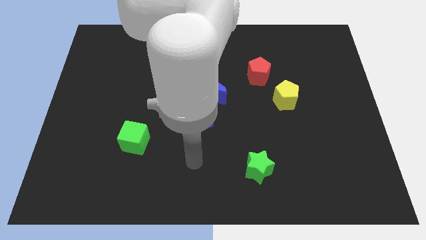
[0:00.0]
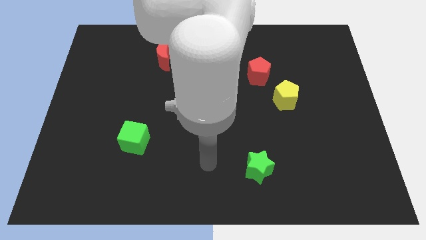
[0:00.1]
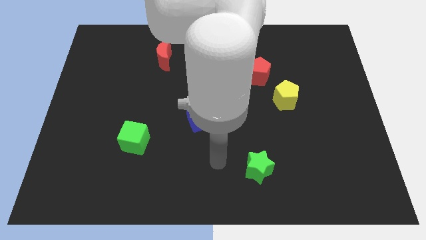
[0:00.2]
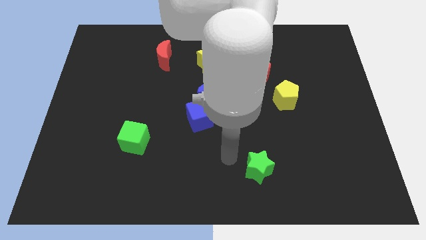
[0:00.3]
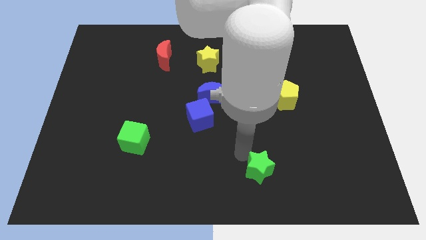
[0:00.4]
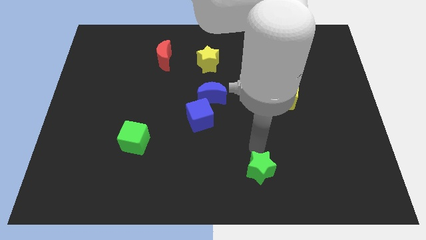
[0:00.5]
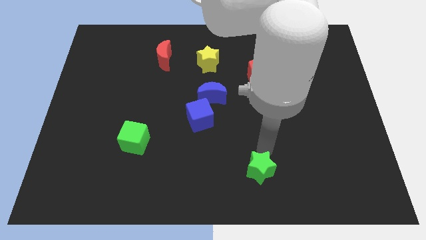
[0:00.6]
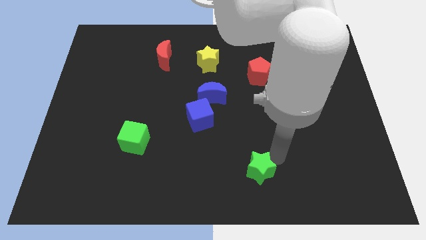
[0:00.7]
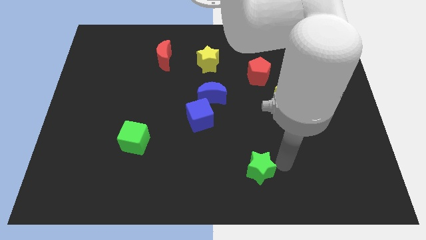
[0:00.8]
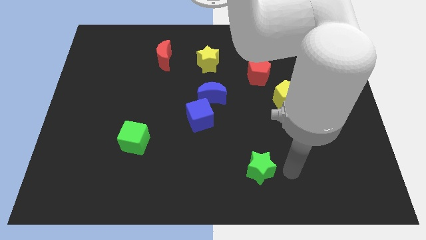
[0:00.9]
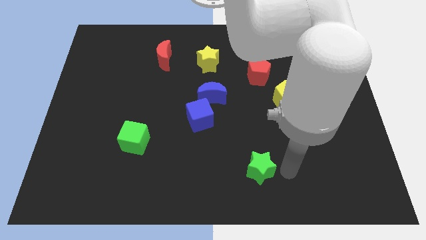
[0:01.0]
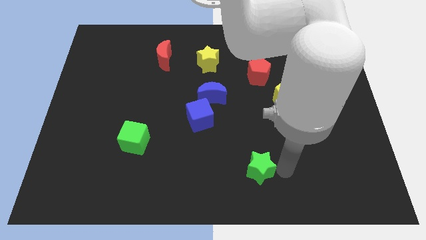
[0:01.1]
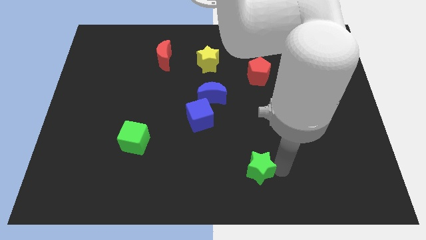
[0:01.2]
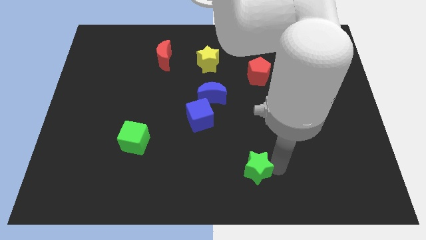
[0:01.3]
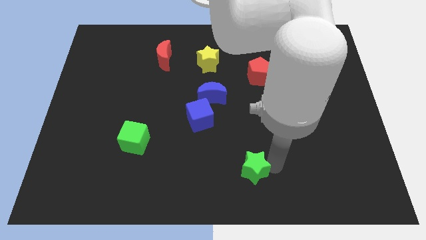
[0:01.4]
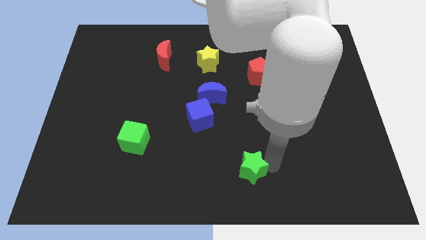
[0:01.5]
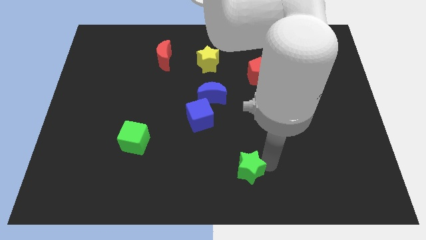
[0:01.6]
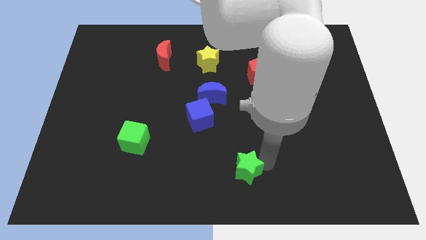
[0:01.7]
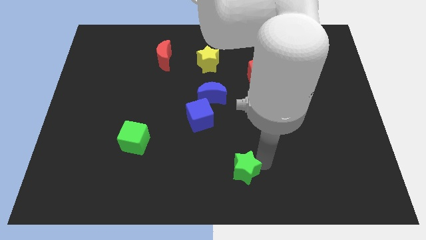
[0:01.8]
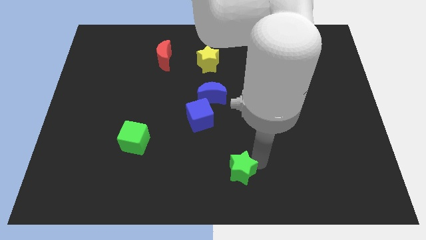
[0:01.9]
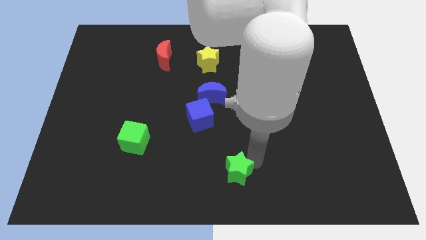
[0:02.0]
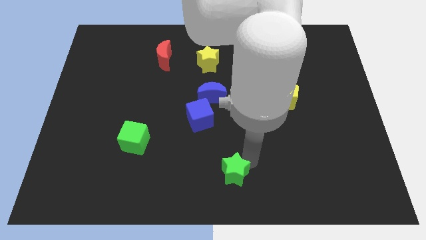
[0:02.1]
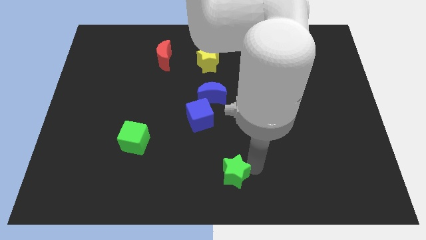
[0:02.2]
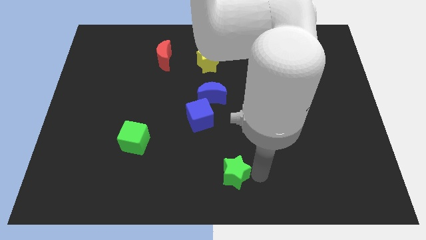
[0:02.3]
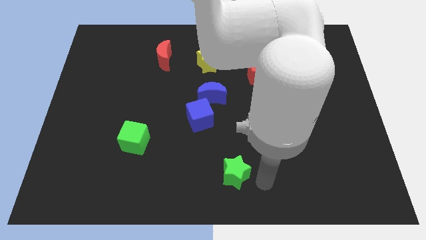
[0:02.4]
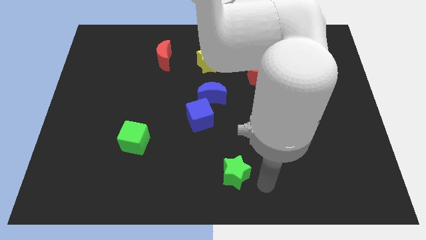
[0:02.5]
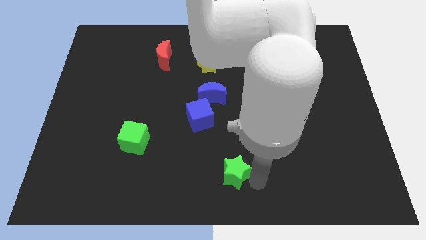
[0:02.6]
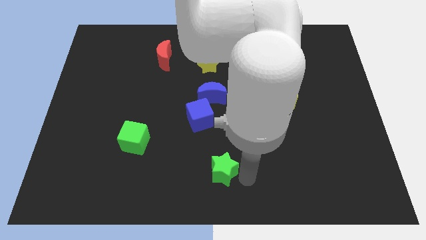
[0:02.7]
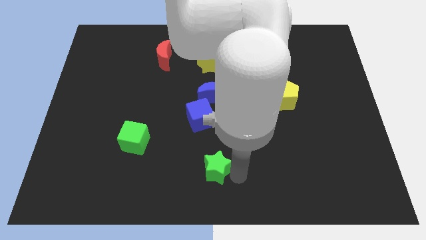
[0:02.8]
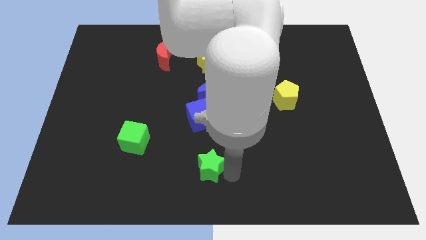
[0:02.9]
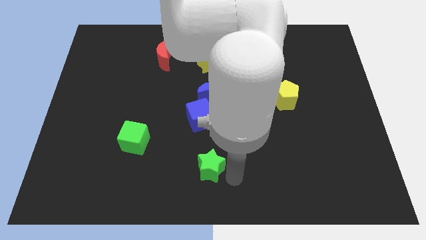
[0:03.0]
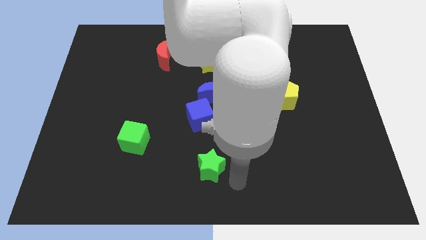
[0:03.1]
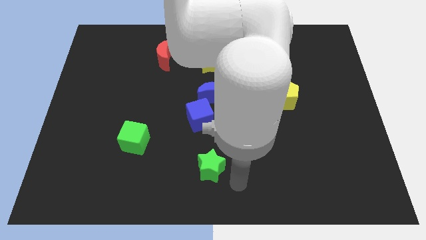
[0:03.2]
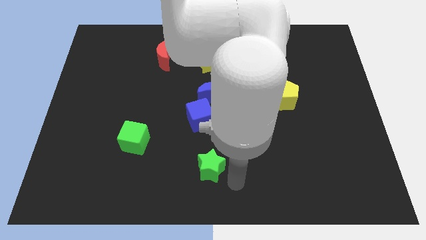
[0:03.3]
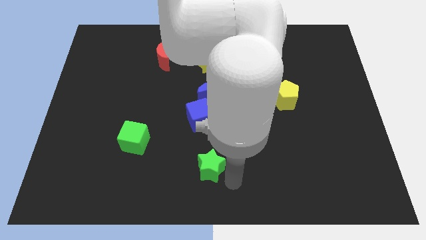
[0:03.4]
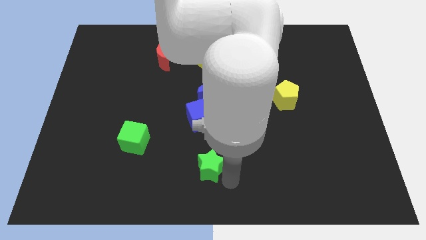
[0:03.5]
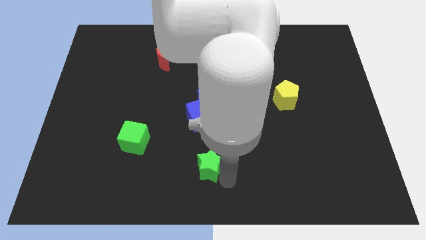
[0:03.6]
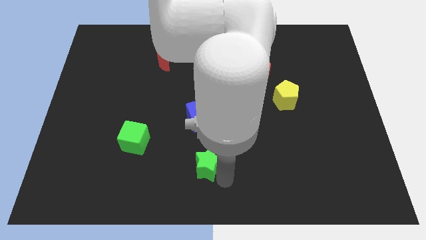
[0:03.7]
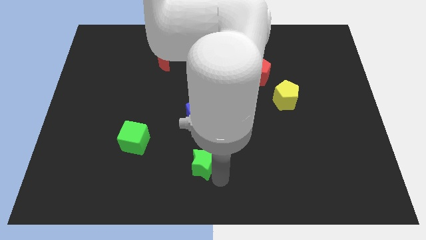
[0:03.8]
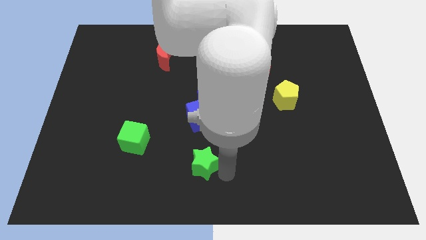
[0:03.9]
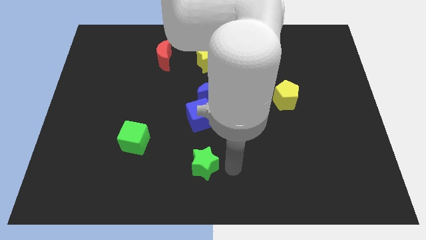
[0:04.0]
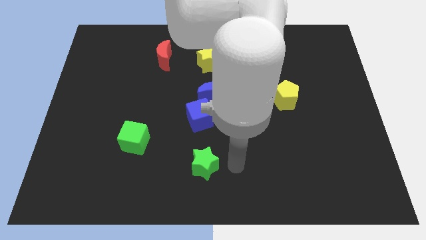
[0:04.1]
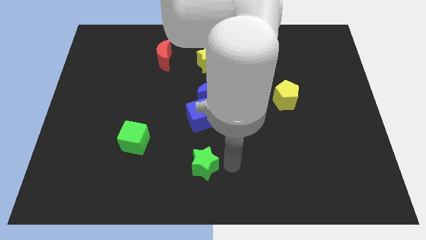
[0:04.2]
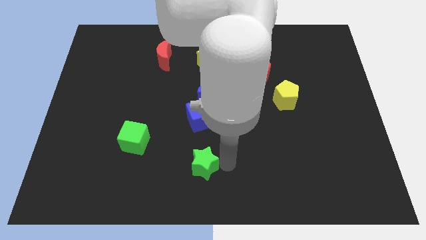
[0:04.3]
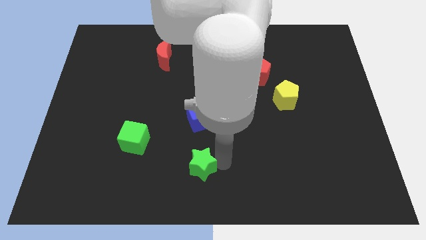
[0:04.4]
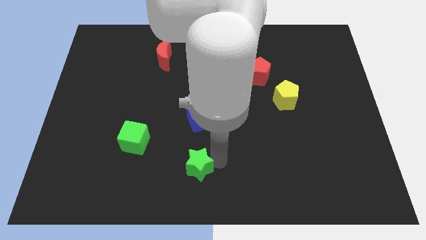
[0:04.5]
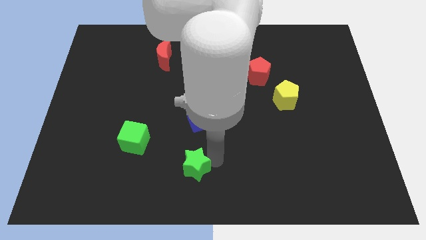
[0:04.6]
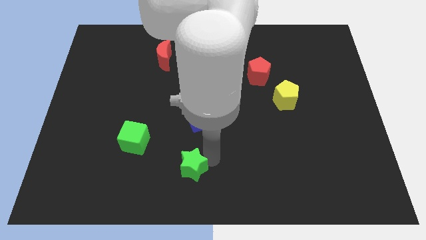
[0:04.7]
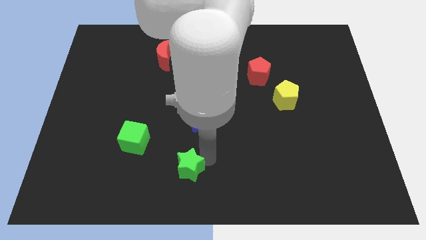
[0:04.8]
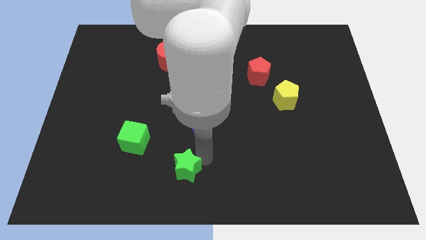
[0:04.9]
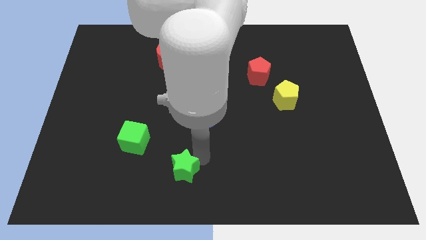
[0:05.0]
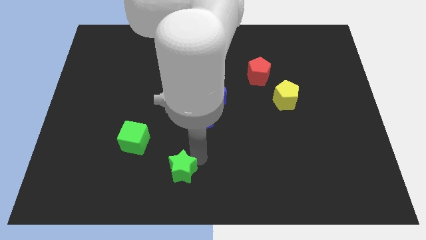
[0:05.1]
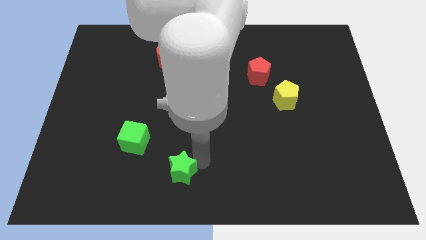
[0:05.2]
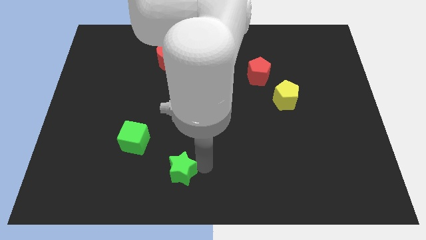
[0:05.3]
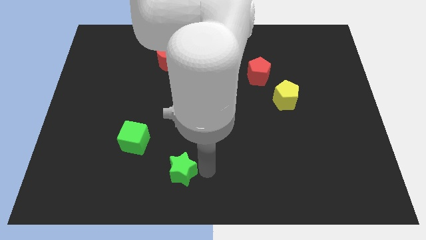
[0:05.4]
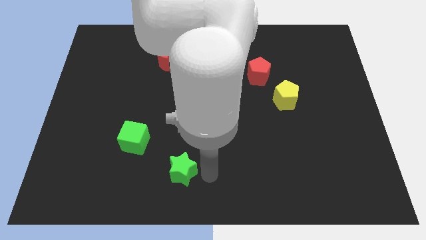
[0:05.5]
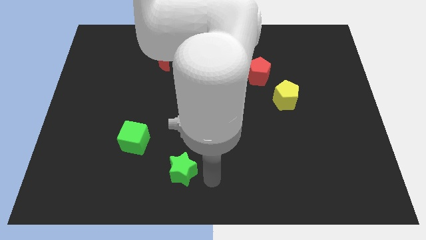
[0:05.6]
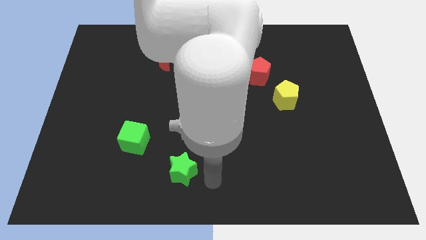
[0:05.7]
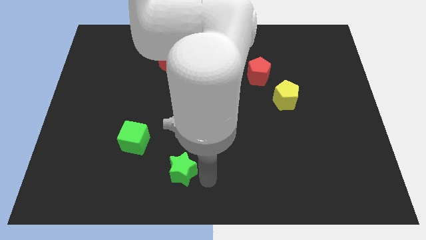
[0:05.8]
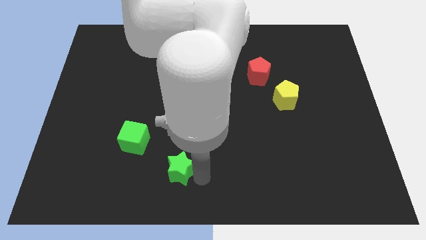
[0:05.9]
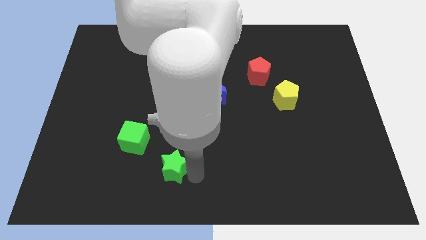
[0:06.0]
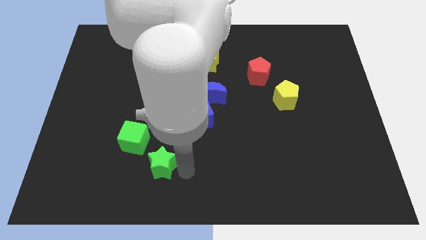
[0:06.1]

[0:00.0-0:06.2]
move the green star left

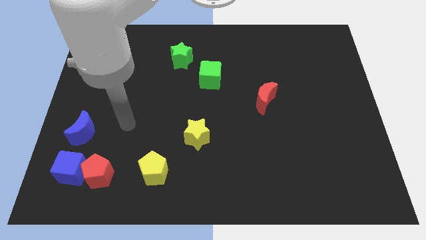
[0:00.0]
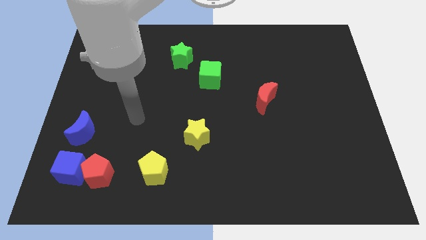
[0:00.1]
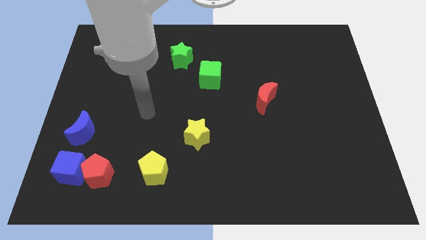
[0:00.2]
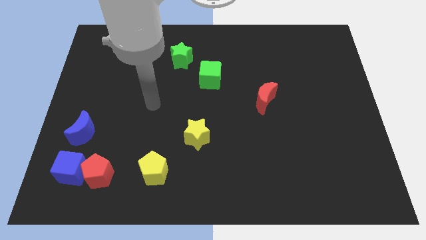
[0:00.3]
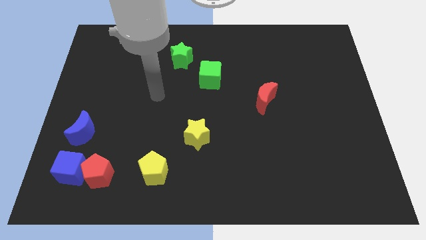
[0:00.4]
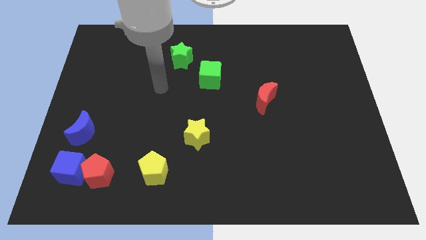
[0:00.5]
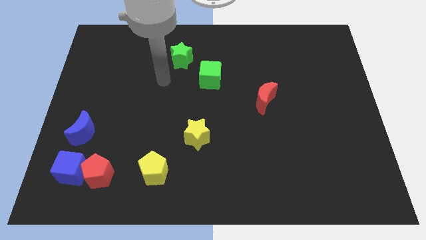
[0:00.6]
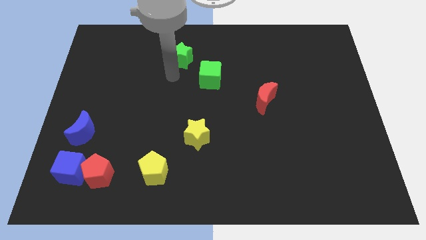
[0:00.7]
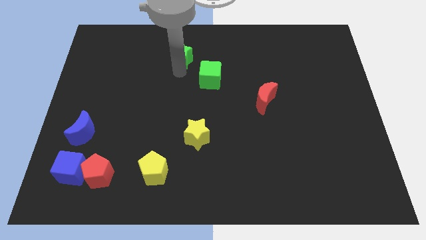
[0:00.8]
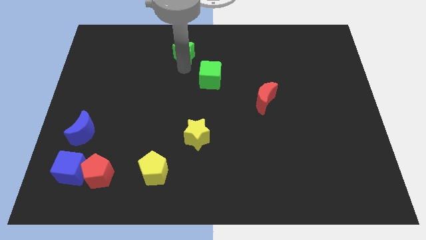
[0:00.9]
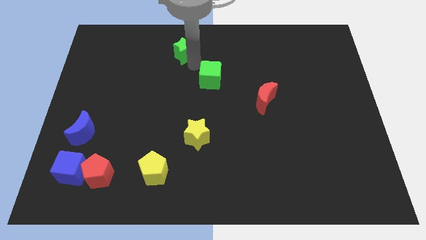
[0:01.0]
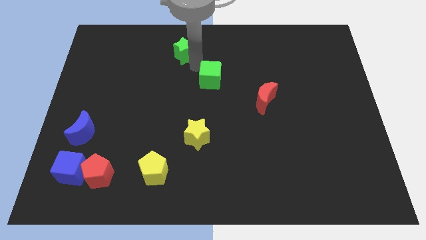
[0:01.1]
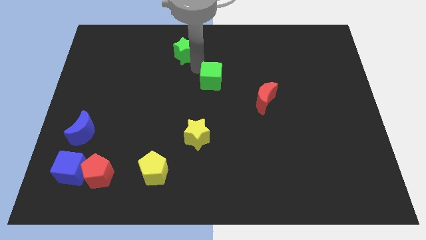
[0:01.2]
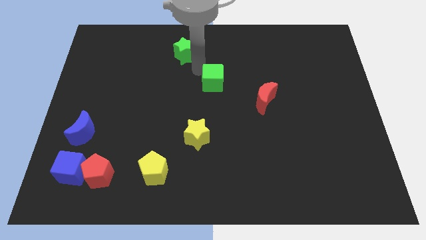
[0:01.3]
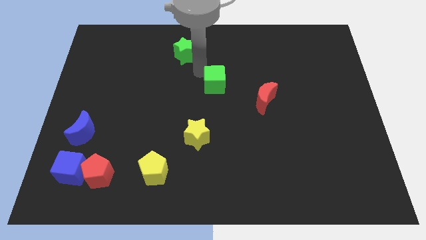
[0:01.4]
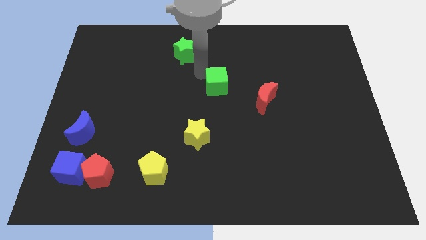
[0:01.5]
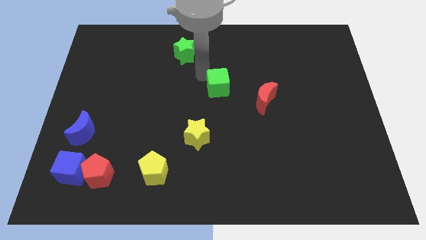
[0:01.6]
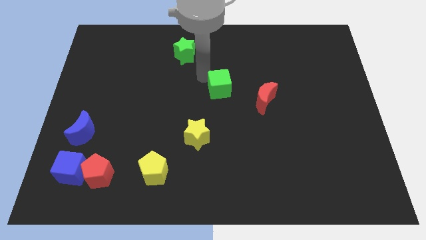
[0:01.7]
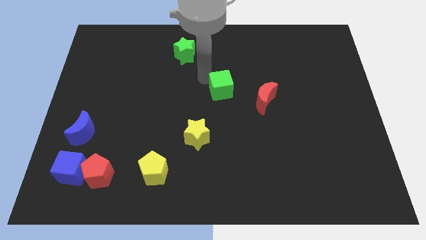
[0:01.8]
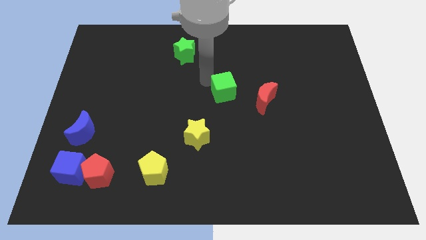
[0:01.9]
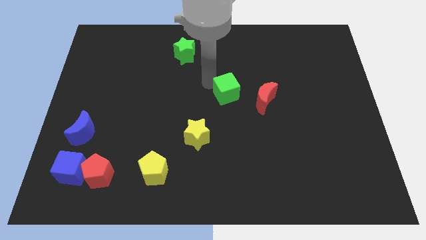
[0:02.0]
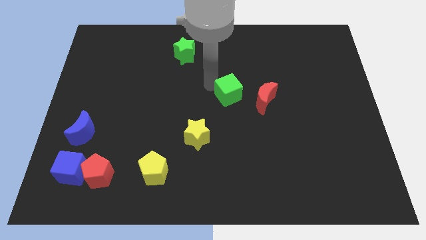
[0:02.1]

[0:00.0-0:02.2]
slide the green cube down and to the right diagonally a bit
